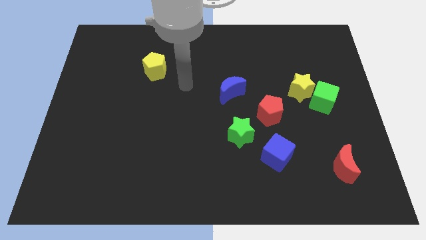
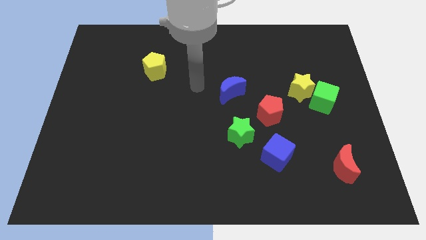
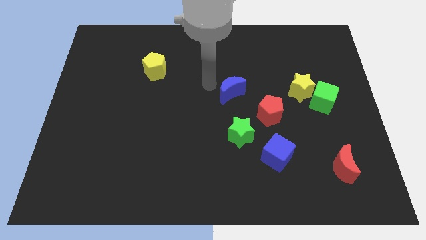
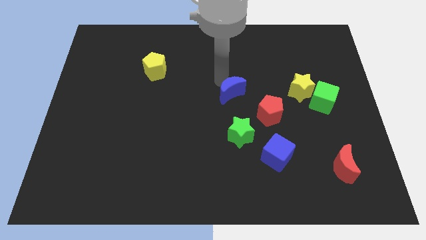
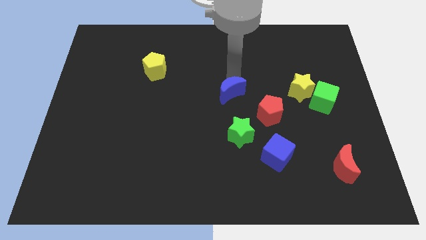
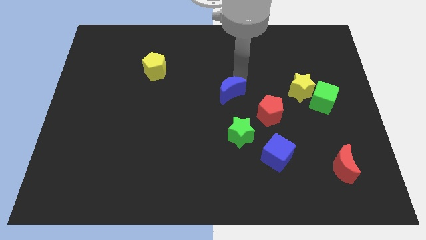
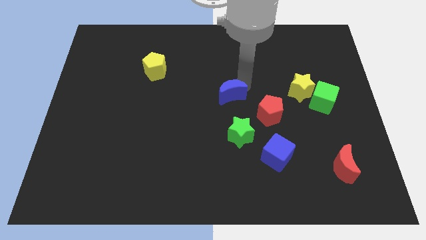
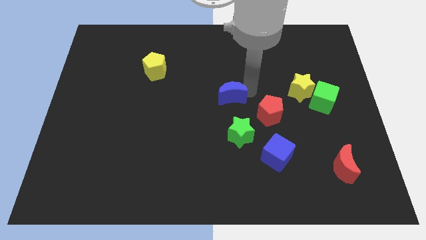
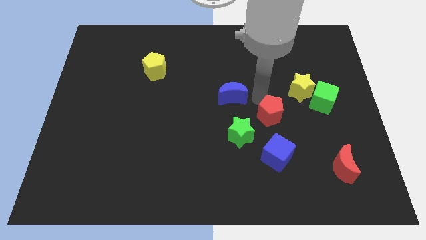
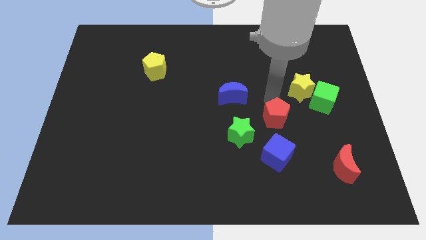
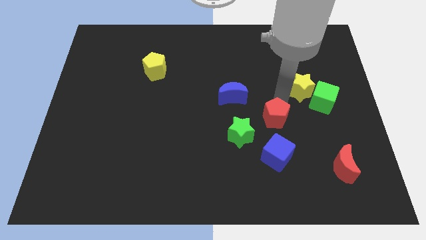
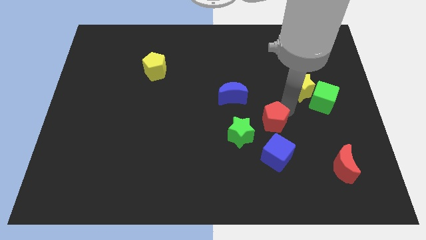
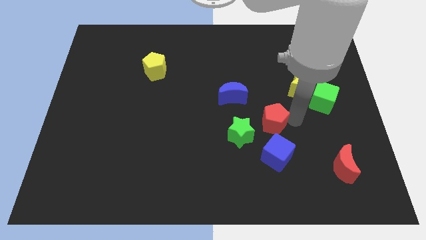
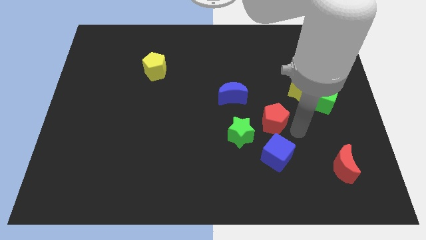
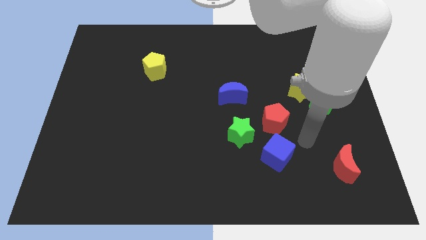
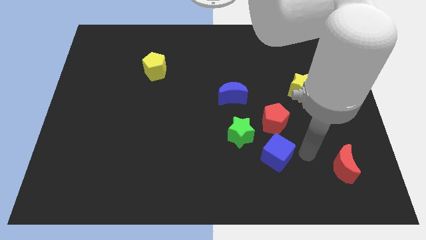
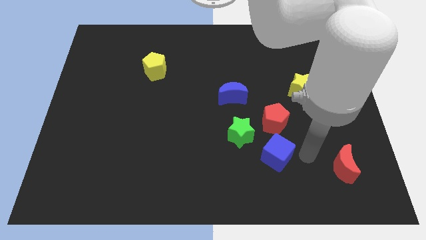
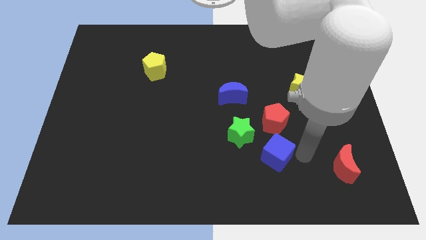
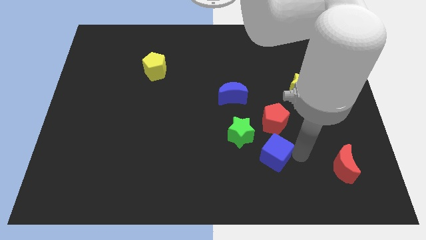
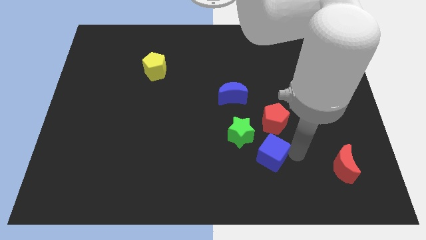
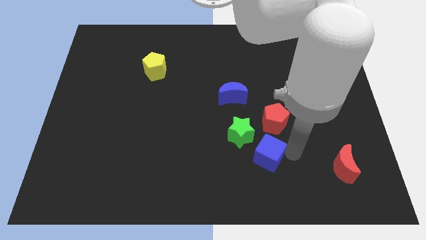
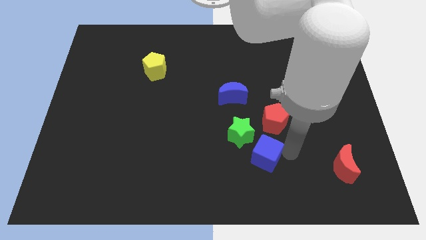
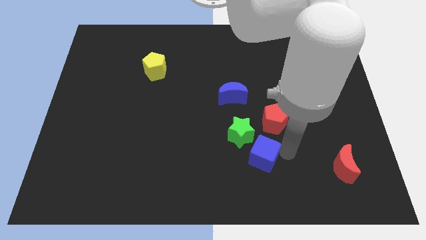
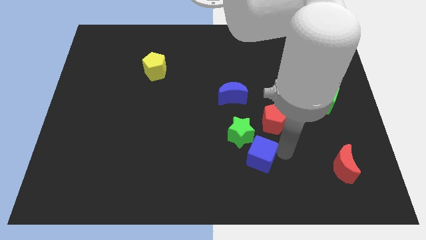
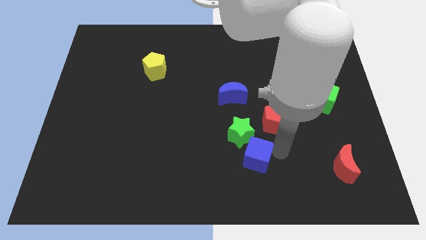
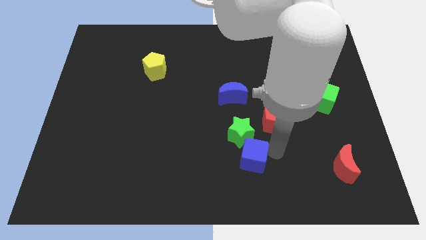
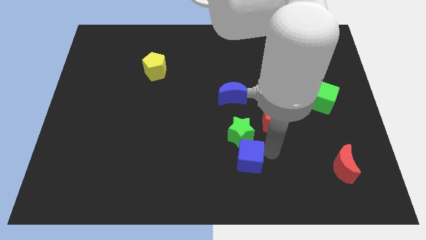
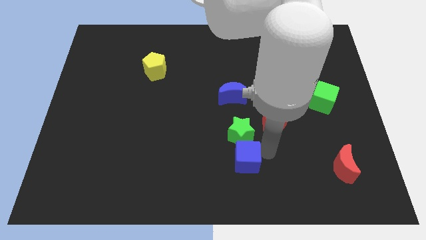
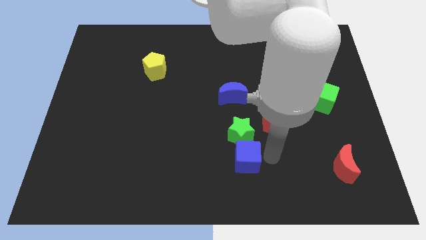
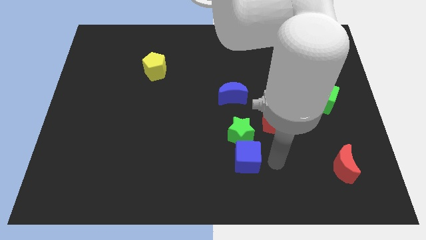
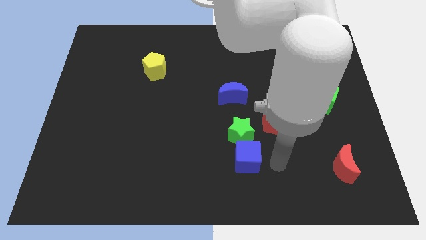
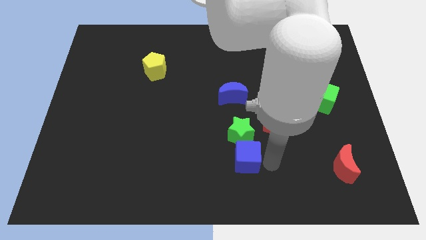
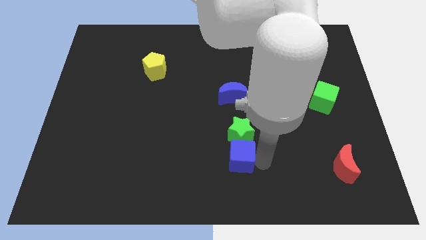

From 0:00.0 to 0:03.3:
push the blue cube slightly left

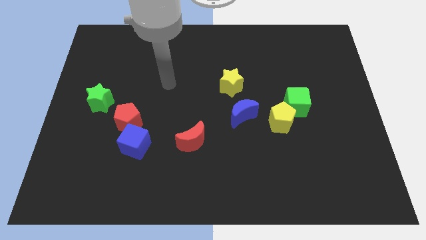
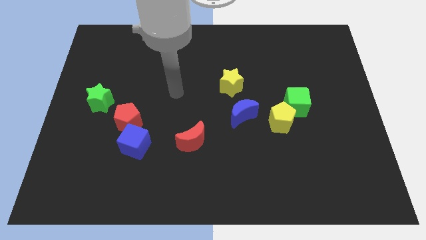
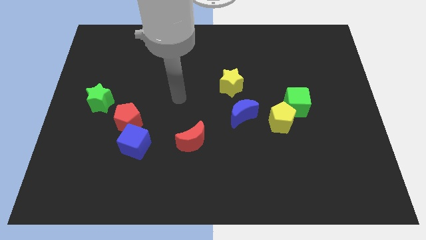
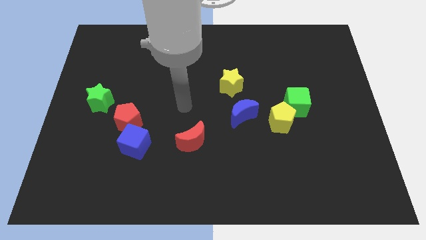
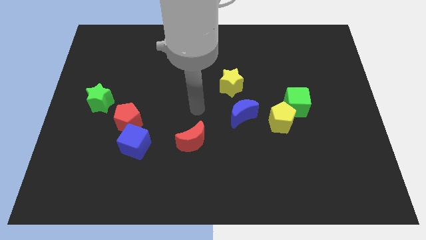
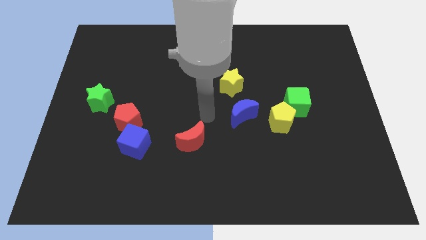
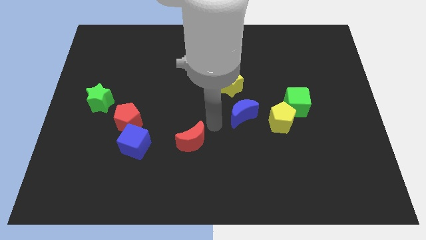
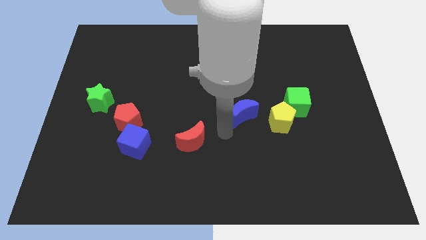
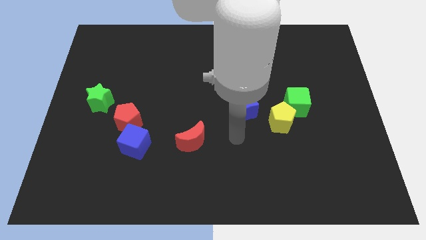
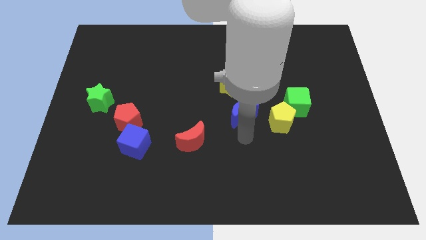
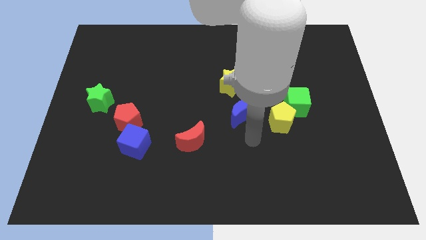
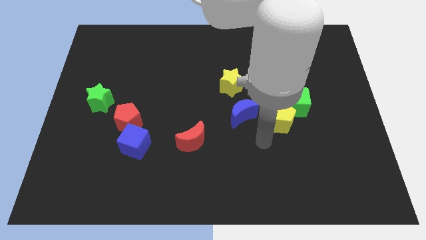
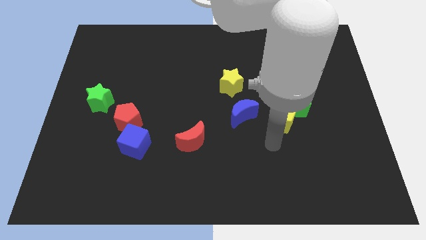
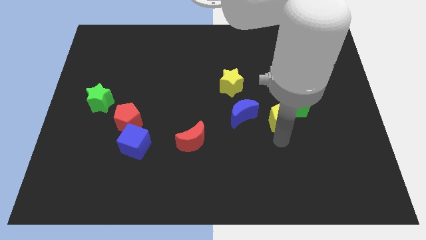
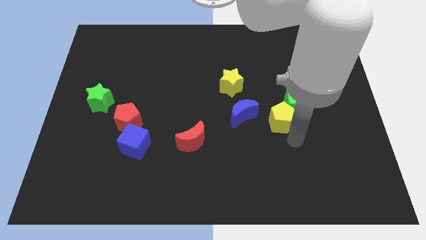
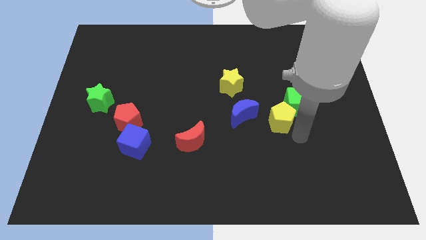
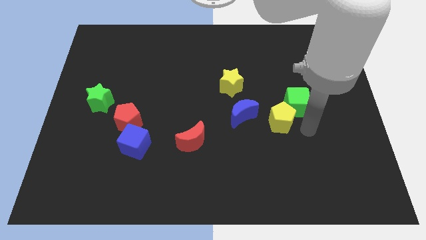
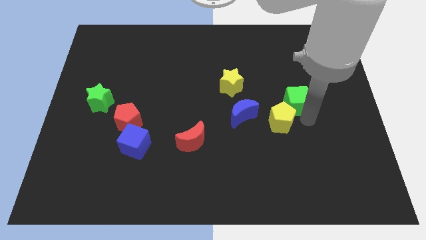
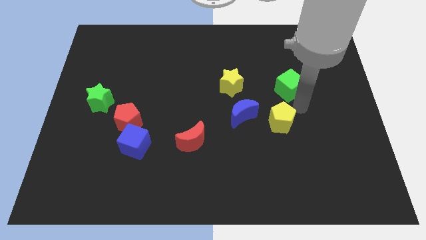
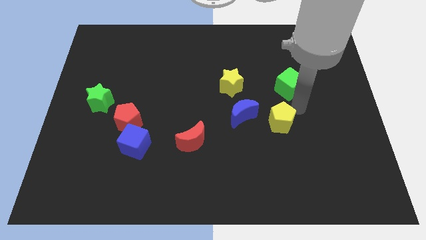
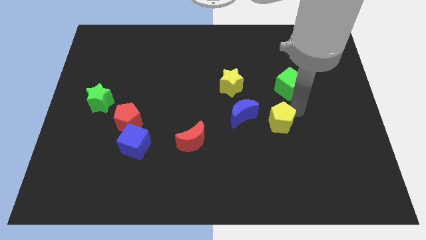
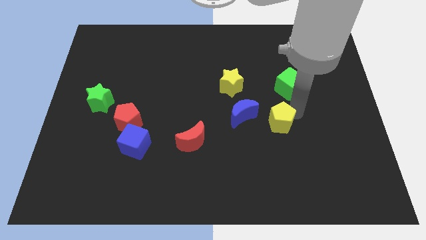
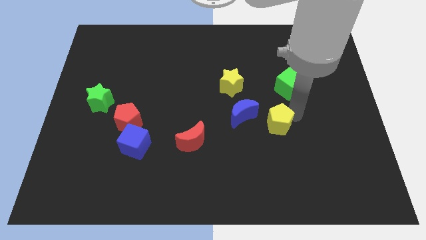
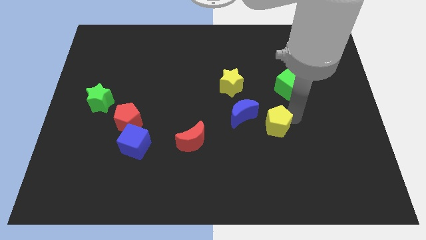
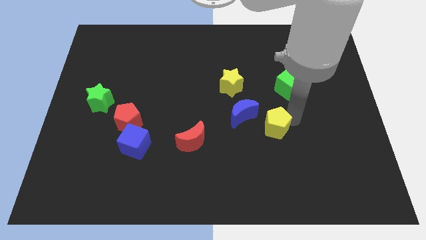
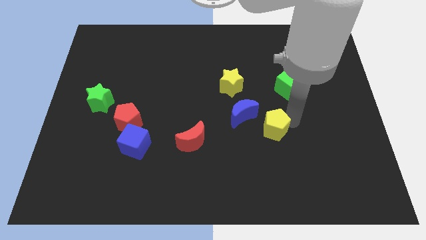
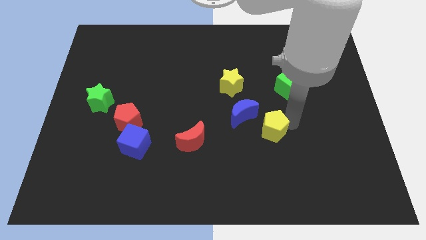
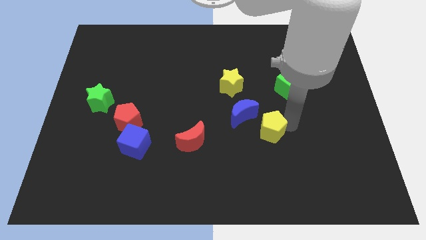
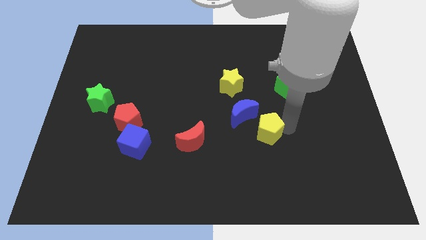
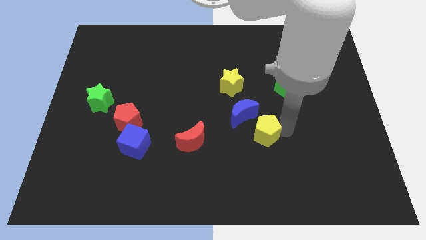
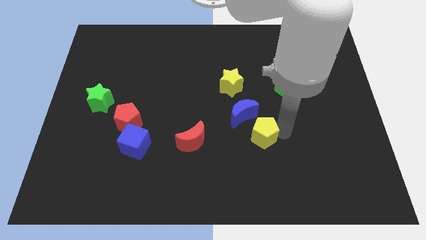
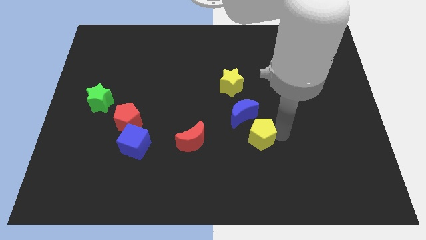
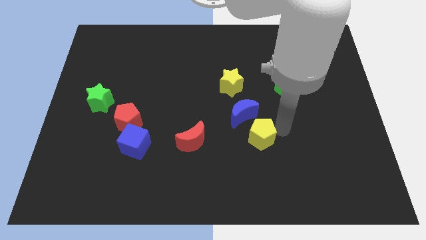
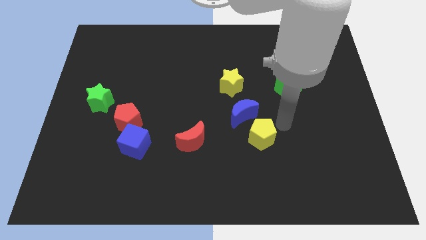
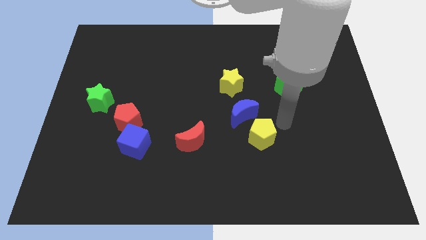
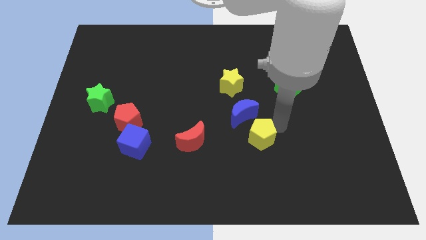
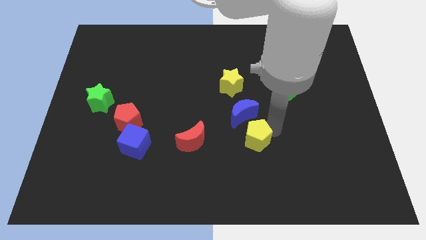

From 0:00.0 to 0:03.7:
push the yellow pentagon a little down and left diagonally

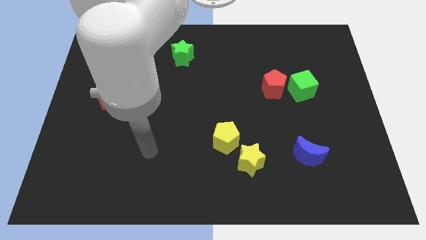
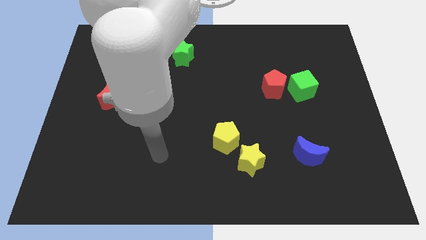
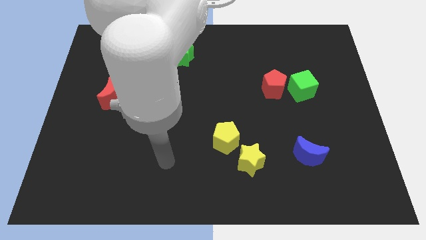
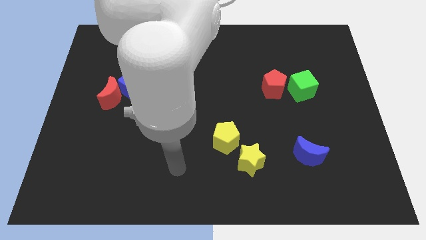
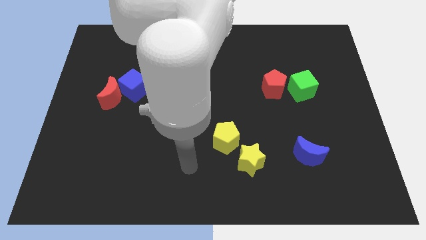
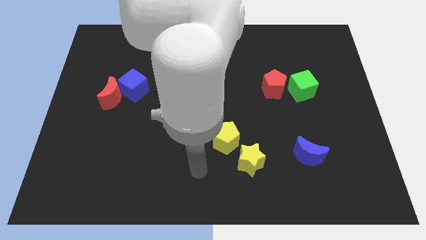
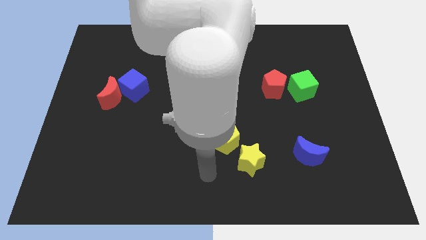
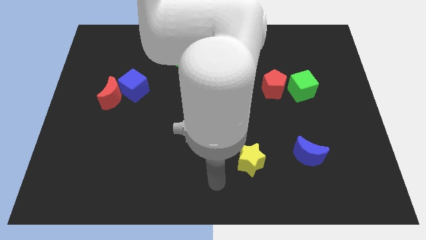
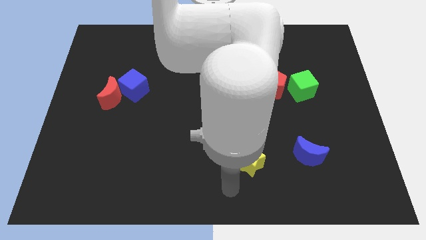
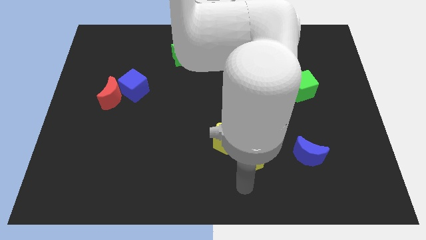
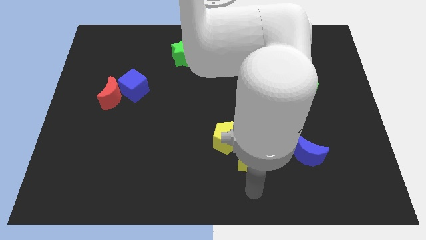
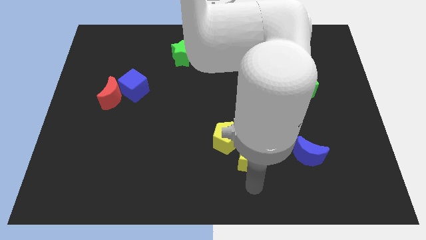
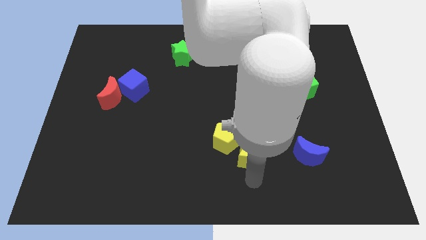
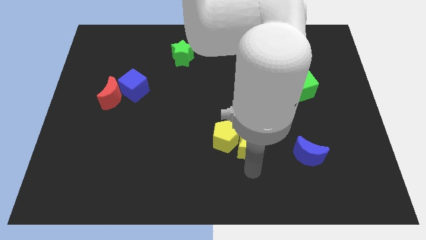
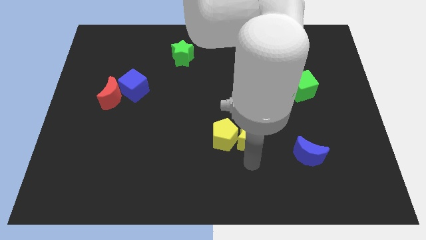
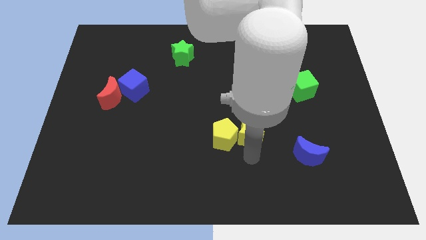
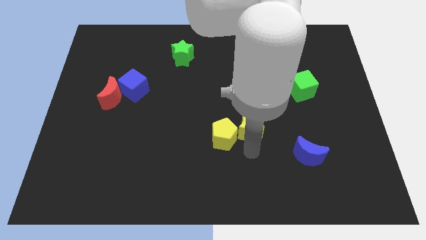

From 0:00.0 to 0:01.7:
move the yellow star a little up
